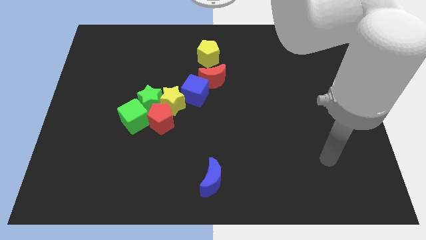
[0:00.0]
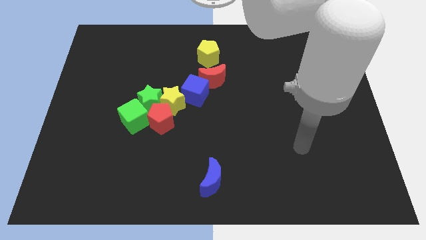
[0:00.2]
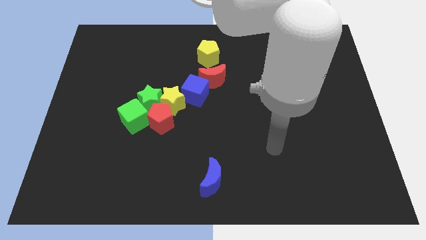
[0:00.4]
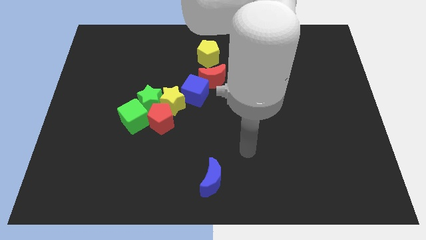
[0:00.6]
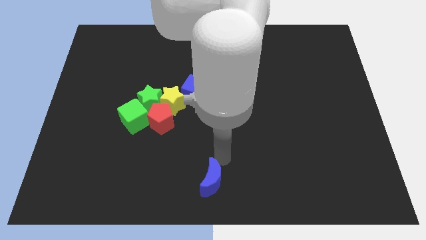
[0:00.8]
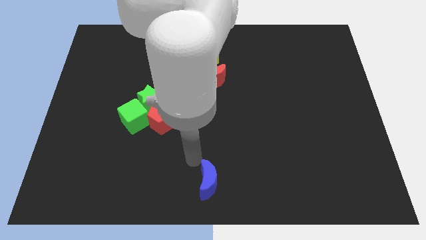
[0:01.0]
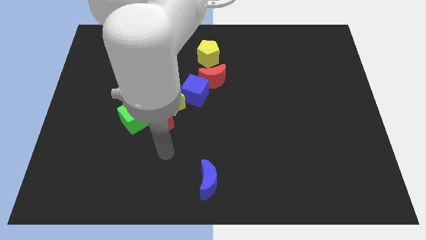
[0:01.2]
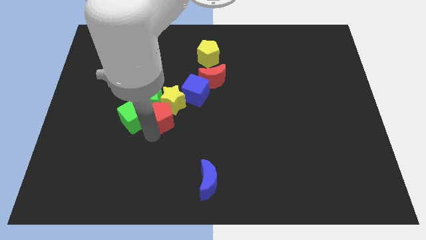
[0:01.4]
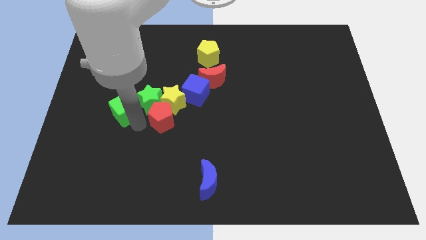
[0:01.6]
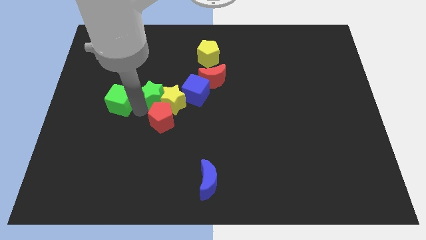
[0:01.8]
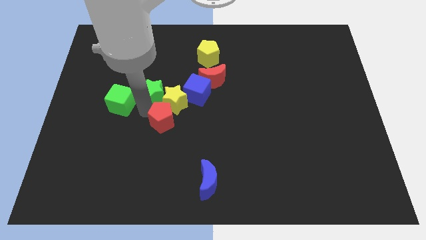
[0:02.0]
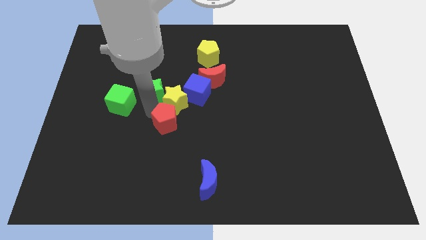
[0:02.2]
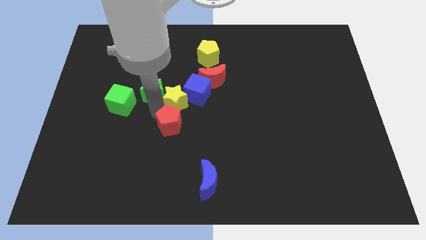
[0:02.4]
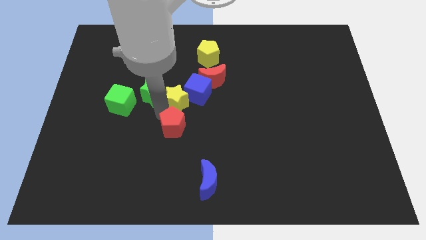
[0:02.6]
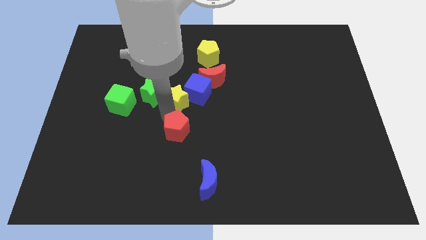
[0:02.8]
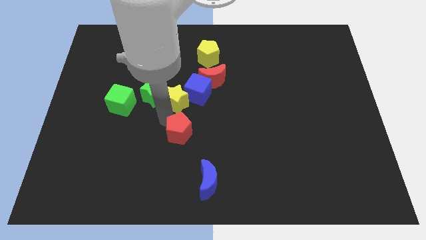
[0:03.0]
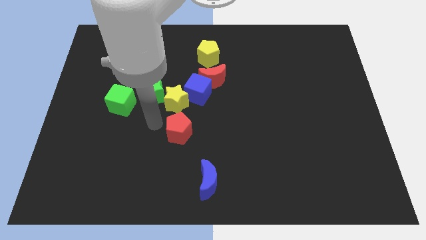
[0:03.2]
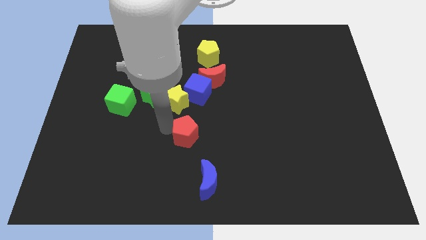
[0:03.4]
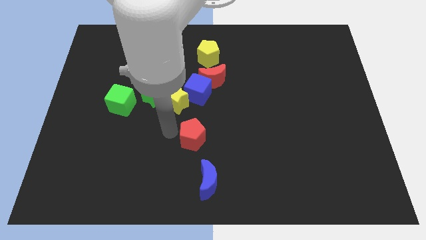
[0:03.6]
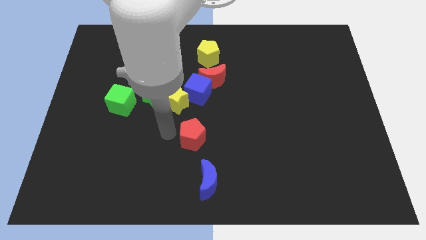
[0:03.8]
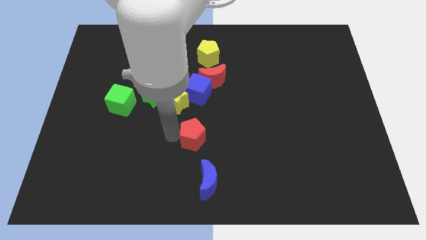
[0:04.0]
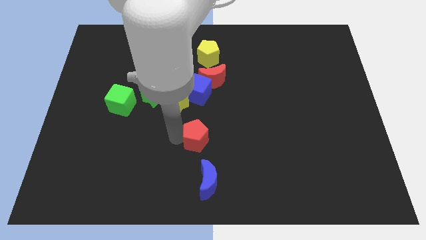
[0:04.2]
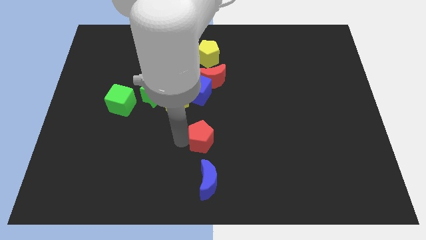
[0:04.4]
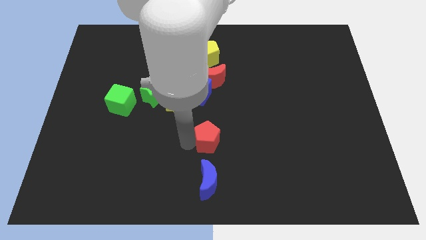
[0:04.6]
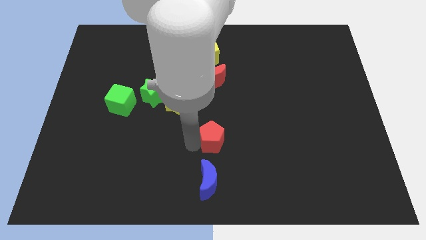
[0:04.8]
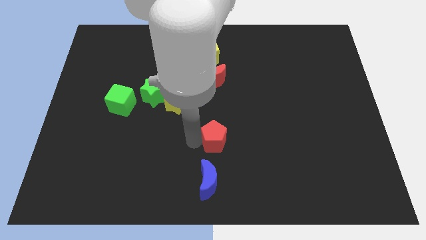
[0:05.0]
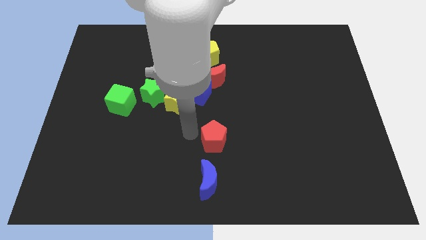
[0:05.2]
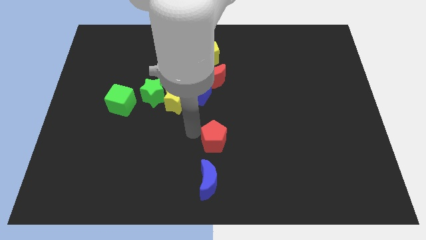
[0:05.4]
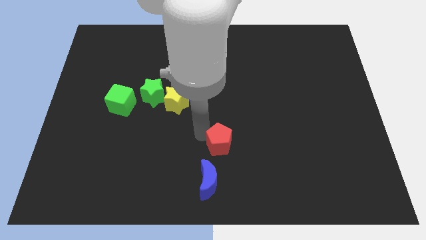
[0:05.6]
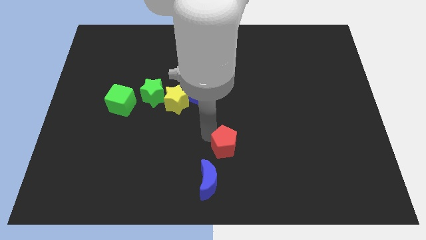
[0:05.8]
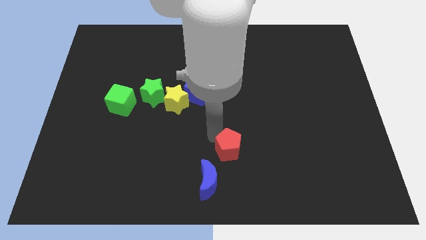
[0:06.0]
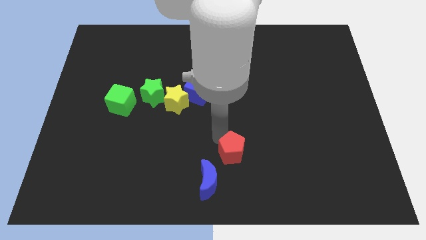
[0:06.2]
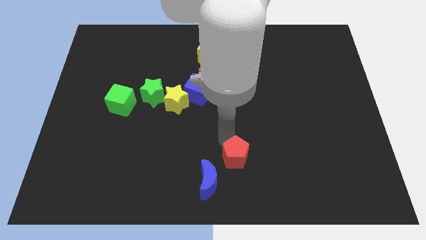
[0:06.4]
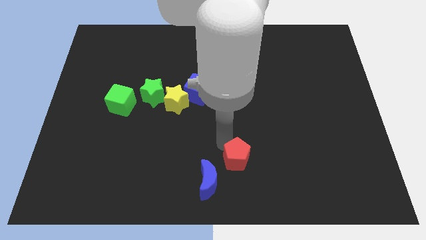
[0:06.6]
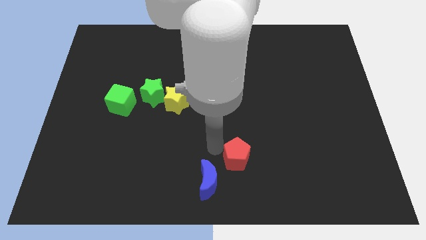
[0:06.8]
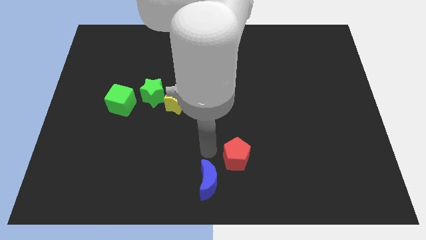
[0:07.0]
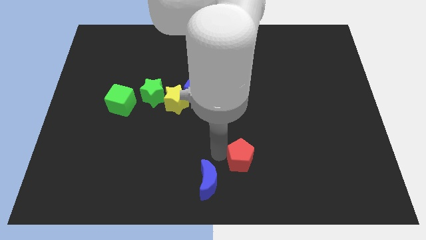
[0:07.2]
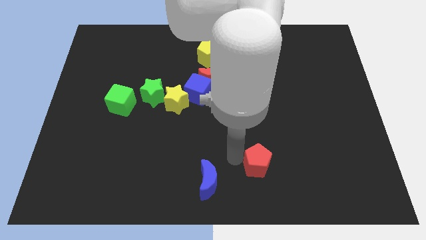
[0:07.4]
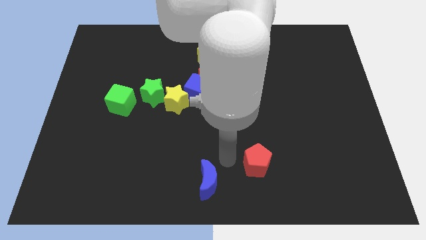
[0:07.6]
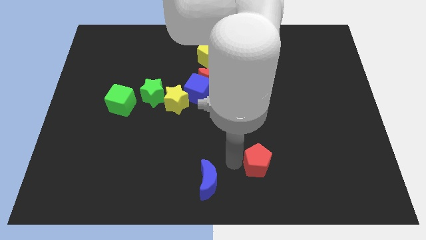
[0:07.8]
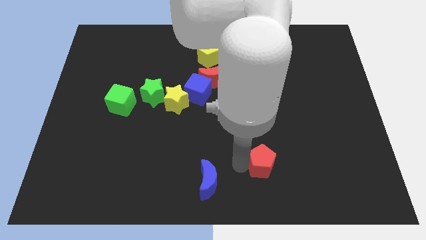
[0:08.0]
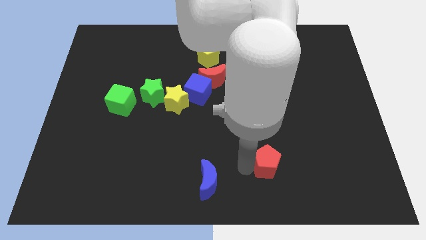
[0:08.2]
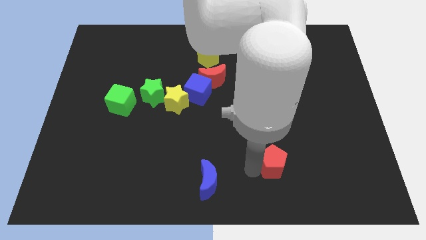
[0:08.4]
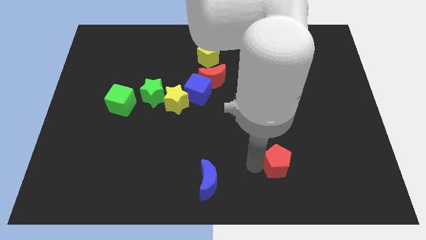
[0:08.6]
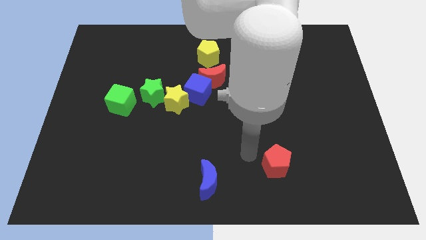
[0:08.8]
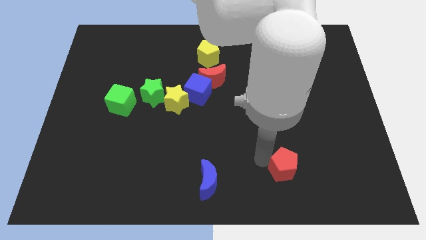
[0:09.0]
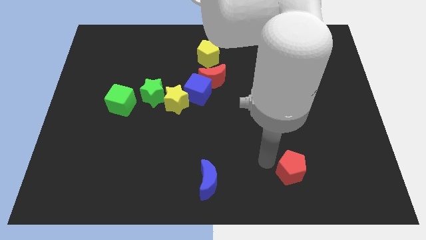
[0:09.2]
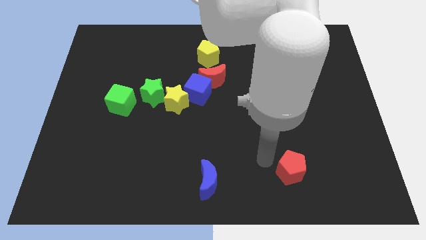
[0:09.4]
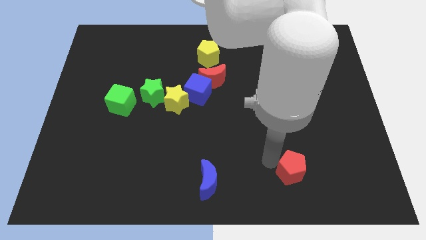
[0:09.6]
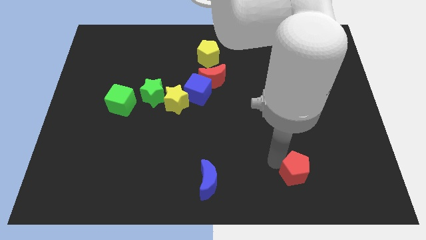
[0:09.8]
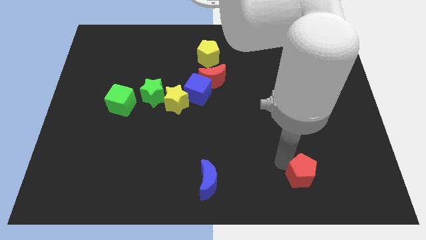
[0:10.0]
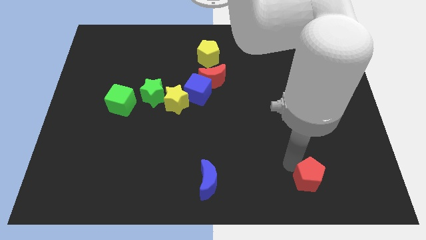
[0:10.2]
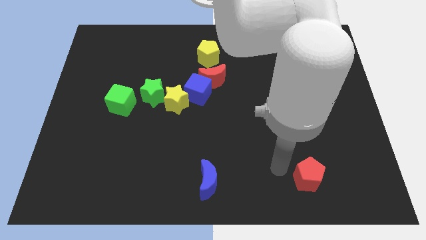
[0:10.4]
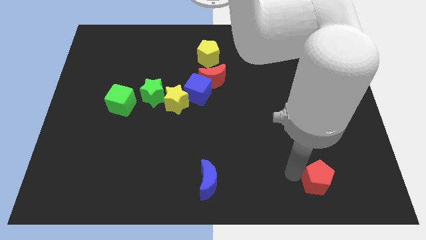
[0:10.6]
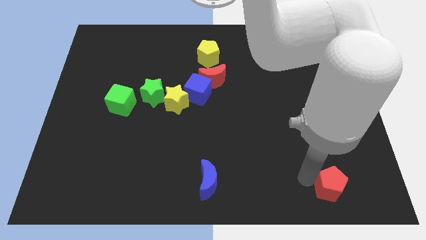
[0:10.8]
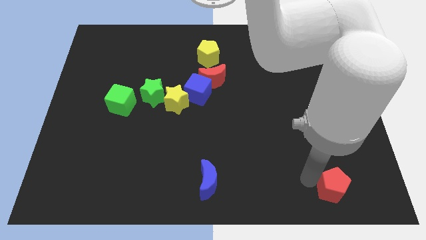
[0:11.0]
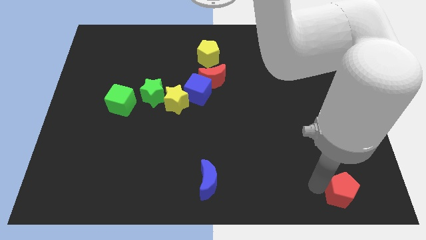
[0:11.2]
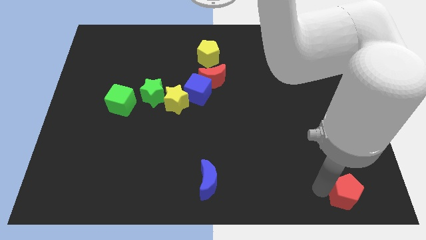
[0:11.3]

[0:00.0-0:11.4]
push the red pentagon to the lower right corner

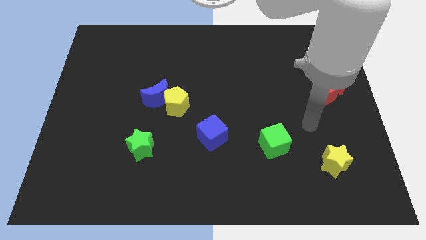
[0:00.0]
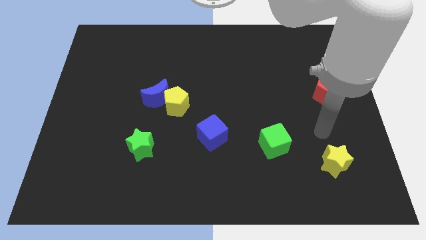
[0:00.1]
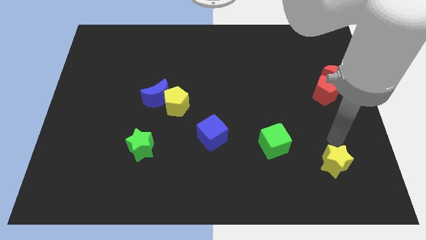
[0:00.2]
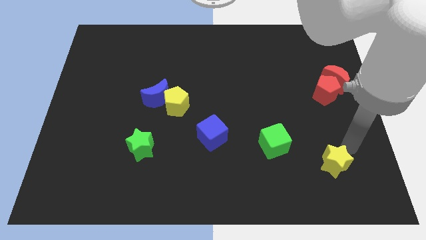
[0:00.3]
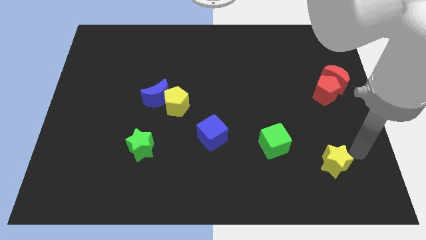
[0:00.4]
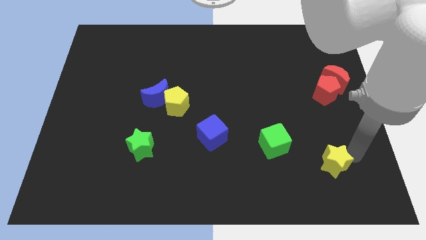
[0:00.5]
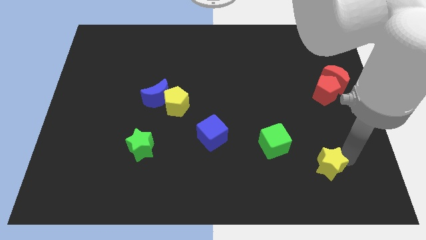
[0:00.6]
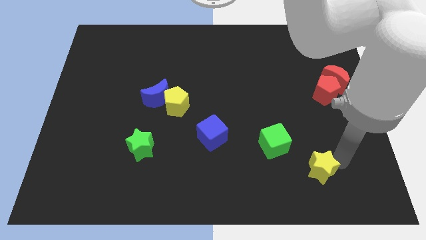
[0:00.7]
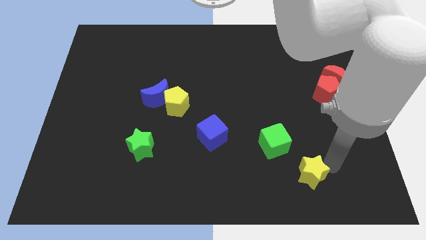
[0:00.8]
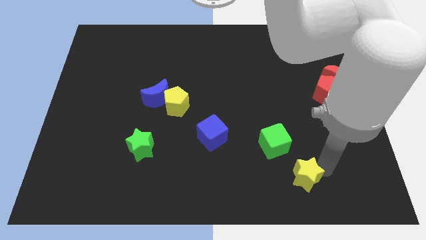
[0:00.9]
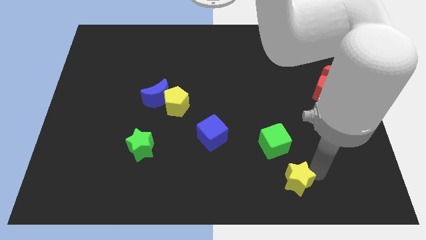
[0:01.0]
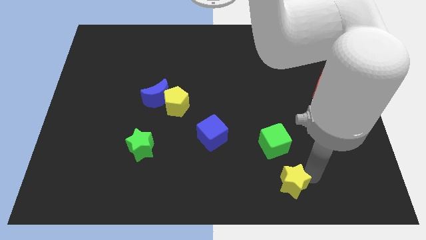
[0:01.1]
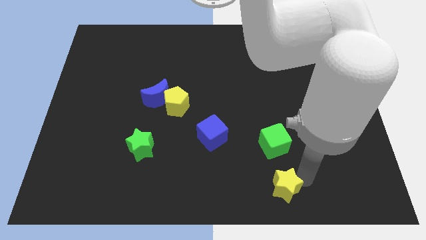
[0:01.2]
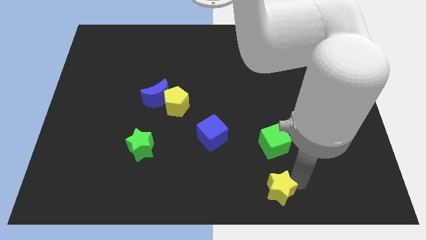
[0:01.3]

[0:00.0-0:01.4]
move the yellow star to the bottom side
